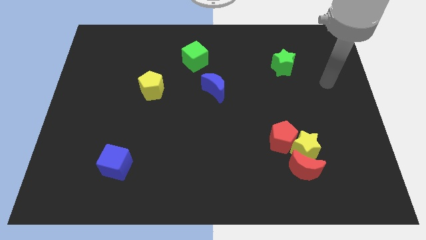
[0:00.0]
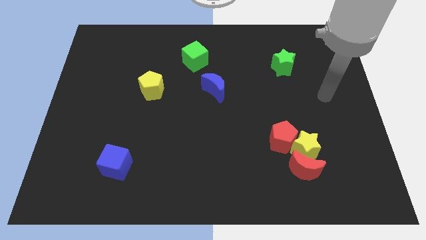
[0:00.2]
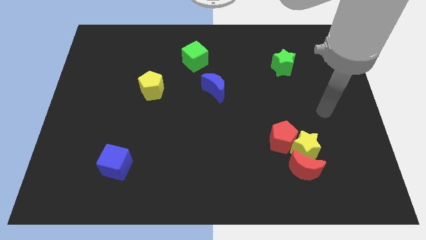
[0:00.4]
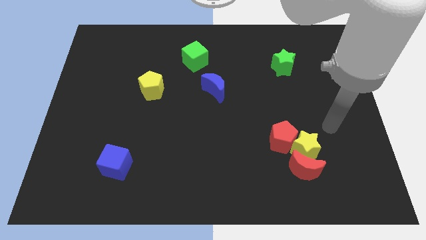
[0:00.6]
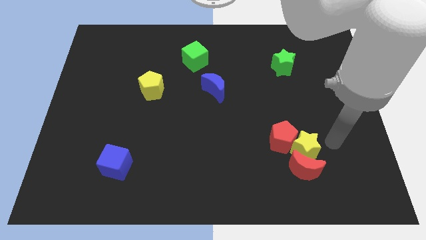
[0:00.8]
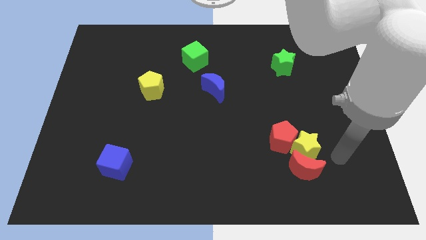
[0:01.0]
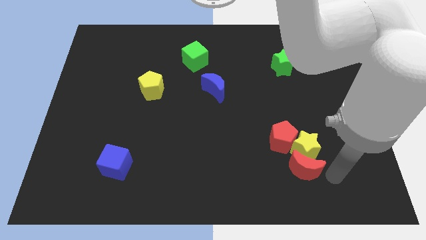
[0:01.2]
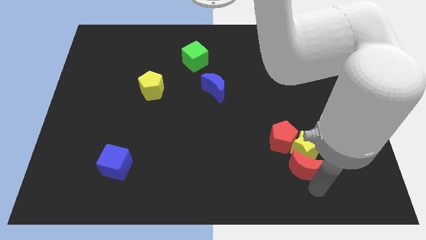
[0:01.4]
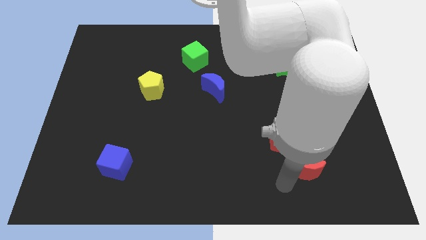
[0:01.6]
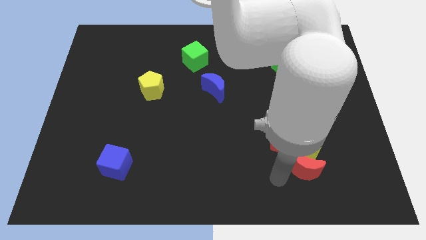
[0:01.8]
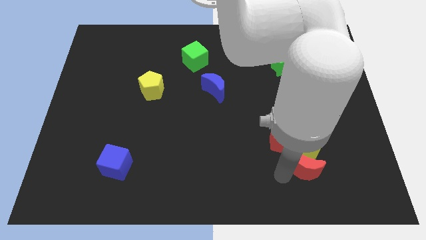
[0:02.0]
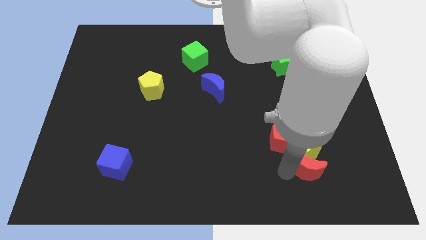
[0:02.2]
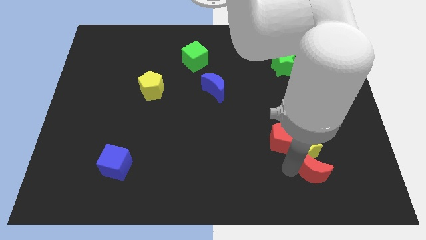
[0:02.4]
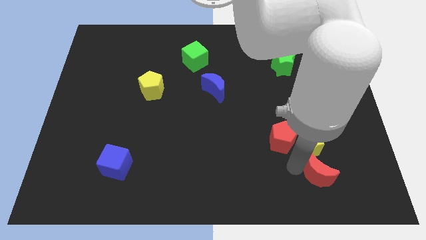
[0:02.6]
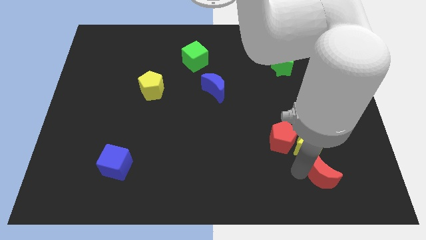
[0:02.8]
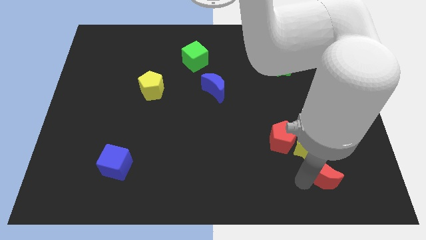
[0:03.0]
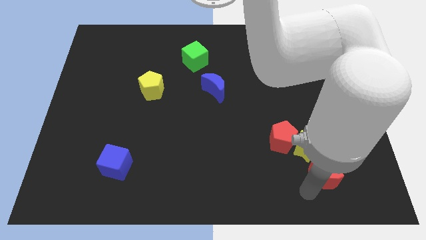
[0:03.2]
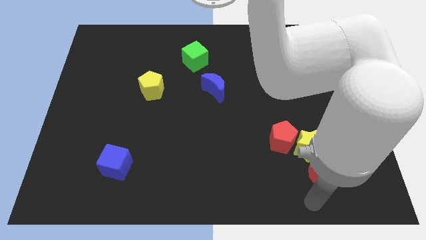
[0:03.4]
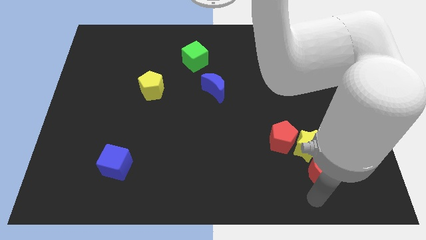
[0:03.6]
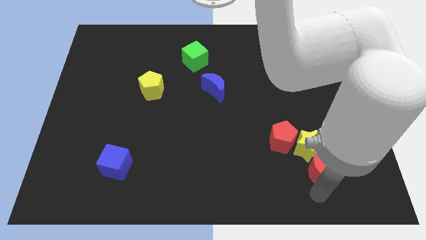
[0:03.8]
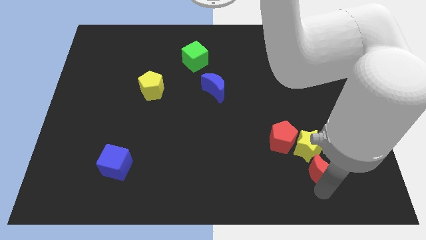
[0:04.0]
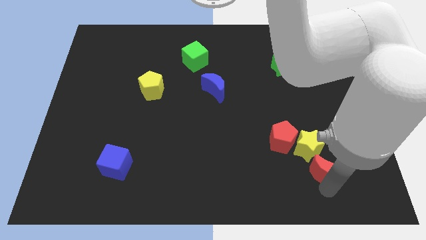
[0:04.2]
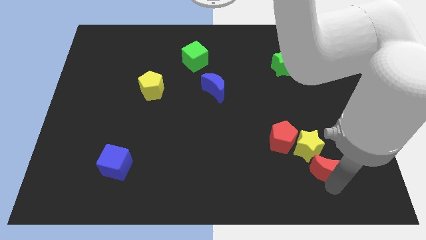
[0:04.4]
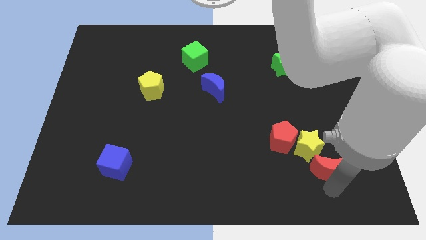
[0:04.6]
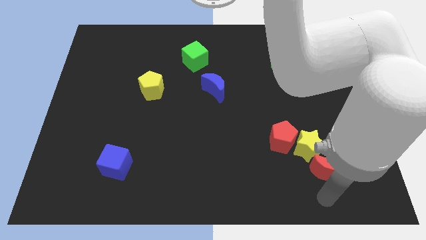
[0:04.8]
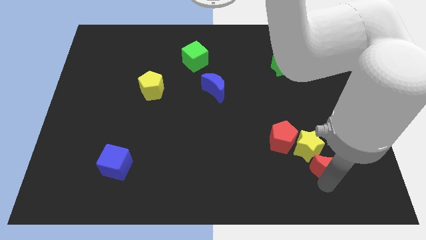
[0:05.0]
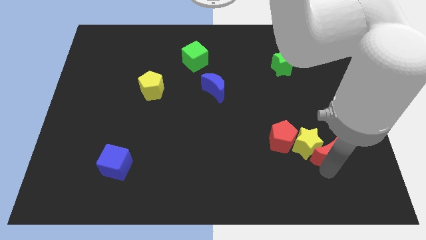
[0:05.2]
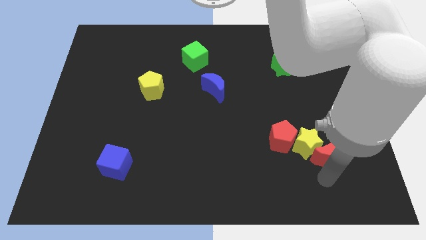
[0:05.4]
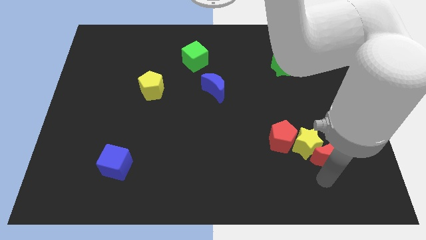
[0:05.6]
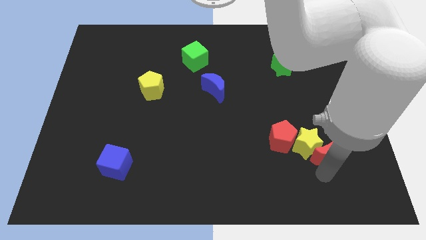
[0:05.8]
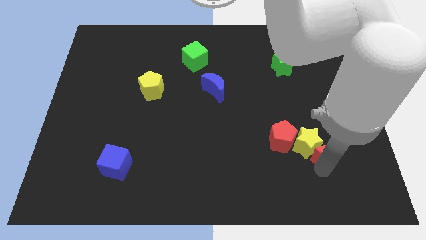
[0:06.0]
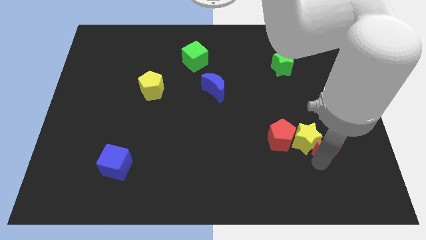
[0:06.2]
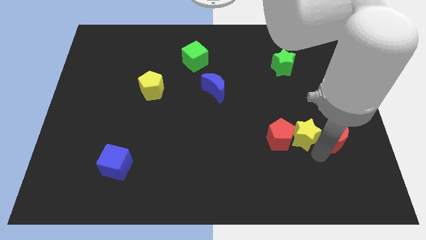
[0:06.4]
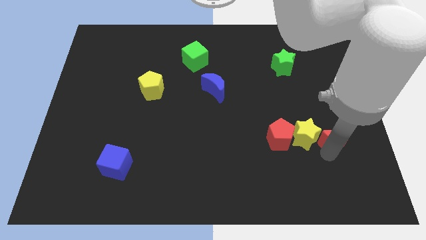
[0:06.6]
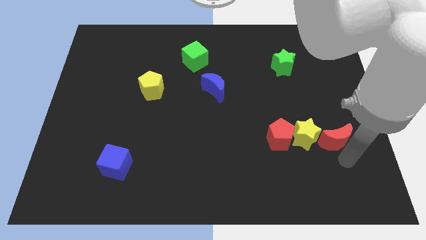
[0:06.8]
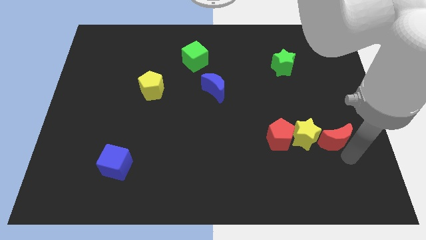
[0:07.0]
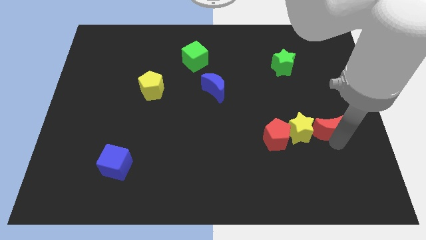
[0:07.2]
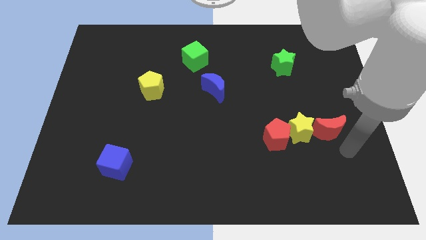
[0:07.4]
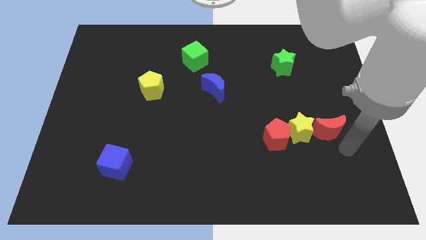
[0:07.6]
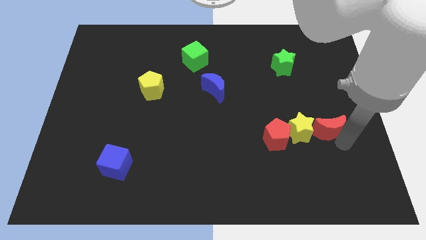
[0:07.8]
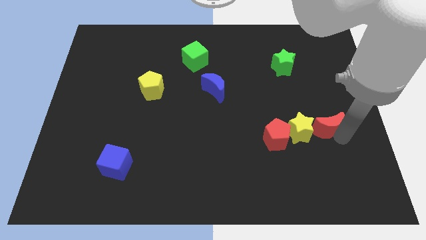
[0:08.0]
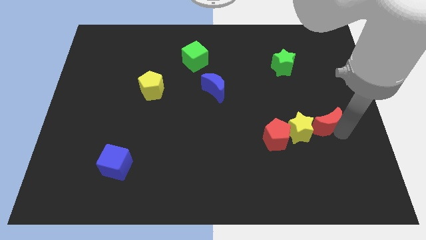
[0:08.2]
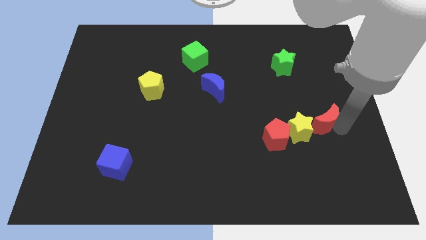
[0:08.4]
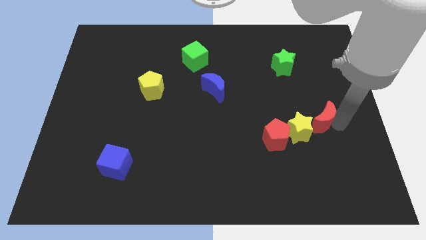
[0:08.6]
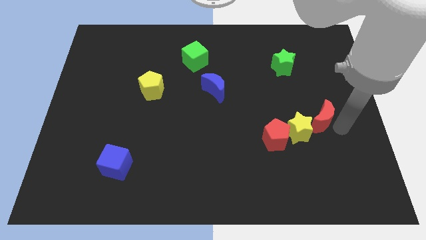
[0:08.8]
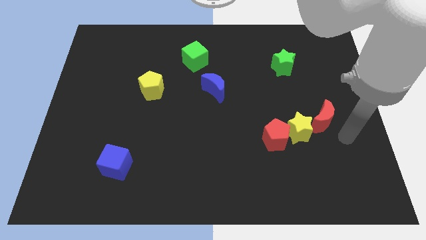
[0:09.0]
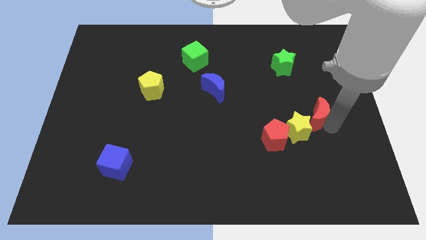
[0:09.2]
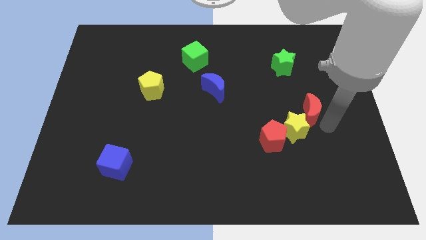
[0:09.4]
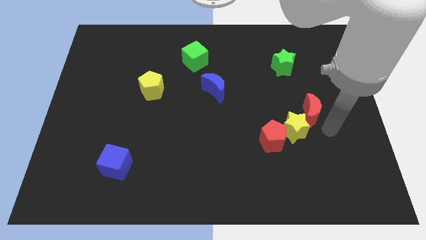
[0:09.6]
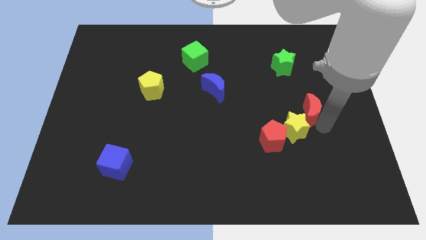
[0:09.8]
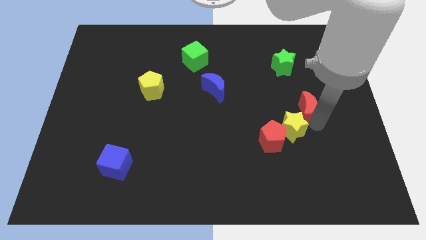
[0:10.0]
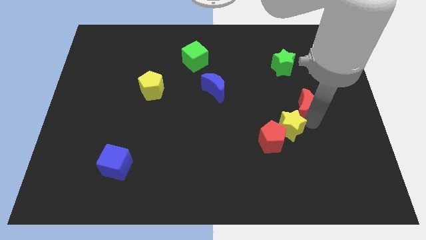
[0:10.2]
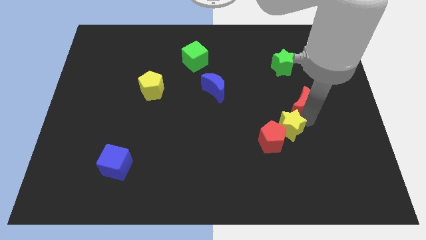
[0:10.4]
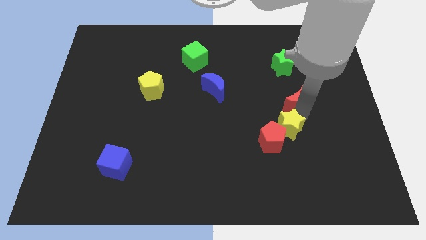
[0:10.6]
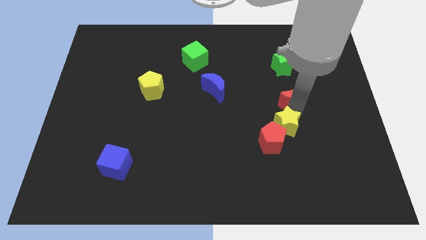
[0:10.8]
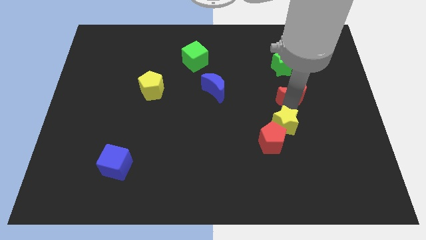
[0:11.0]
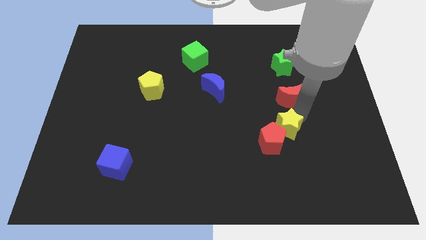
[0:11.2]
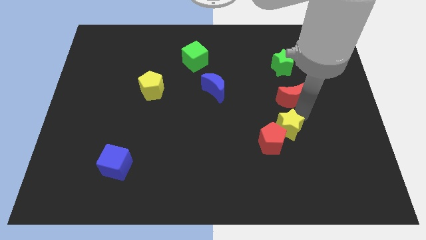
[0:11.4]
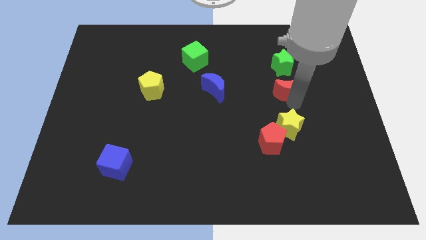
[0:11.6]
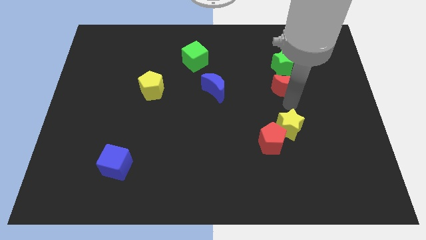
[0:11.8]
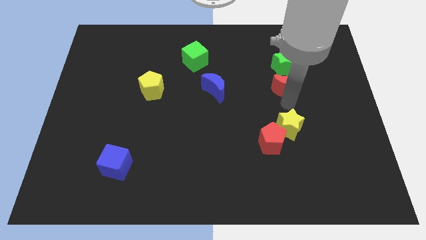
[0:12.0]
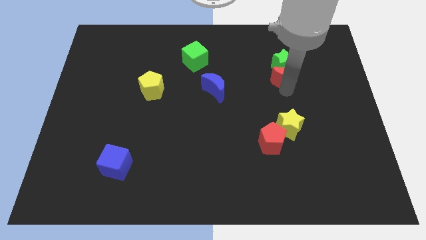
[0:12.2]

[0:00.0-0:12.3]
put the red moon to the green star
